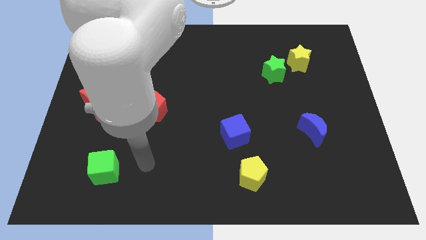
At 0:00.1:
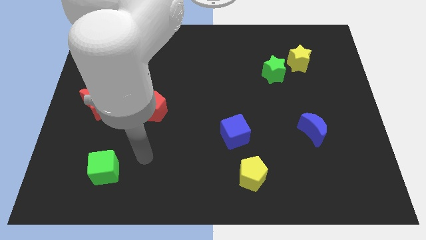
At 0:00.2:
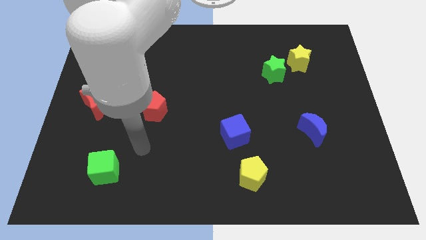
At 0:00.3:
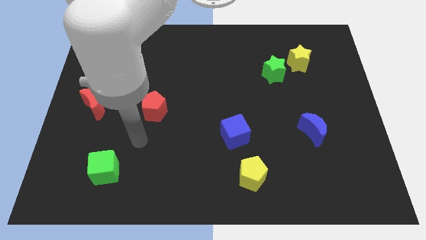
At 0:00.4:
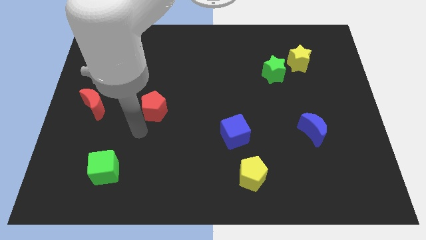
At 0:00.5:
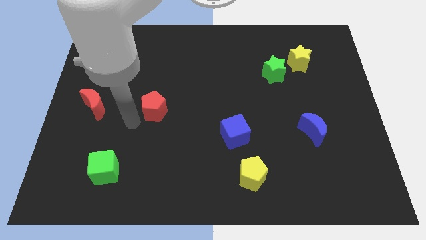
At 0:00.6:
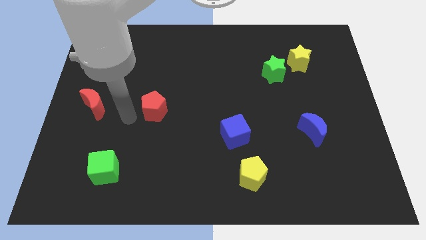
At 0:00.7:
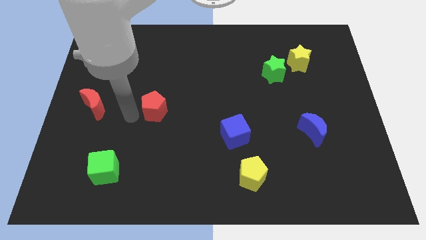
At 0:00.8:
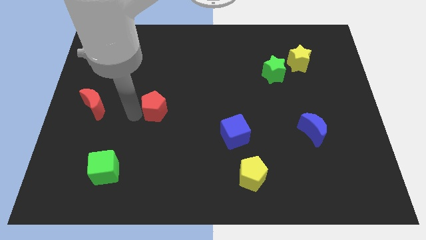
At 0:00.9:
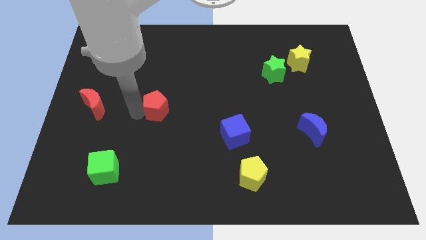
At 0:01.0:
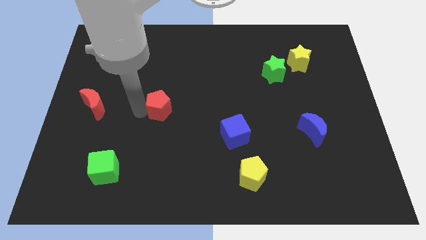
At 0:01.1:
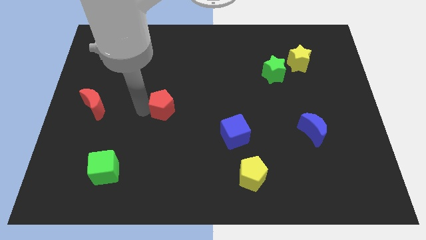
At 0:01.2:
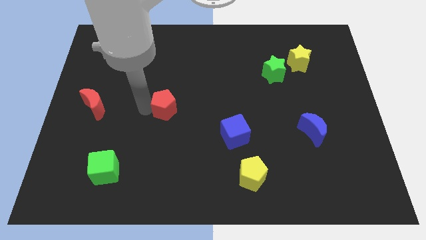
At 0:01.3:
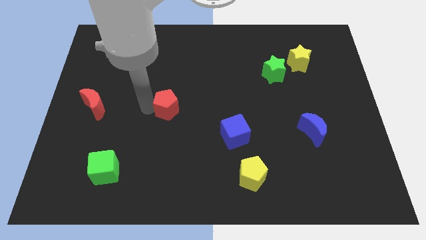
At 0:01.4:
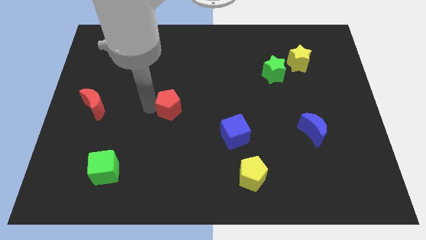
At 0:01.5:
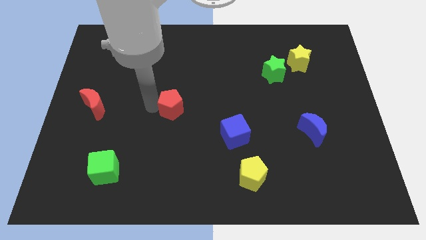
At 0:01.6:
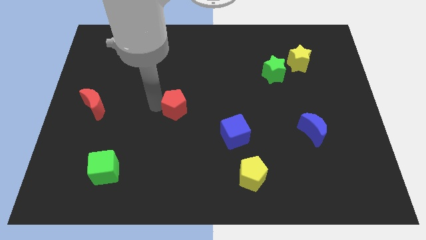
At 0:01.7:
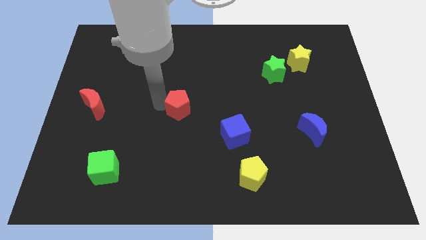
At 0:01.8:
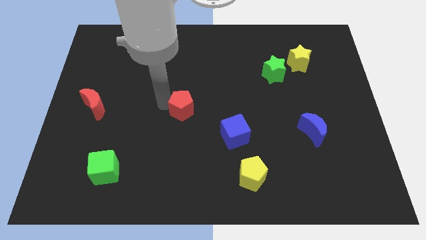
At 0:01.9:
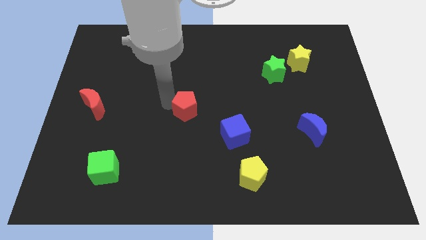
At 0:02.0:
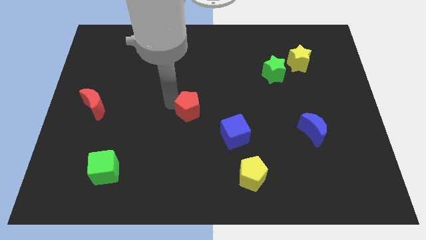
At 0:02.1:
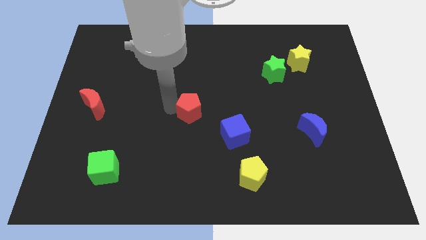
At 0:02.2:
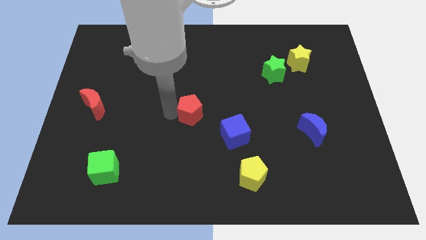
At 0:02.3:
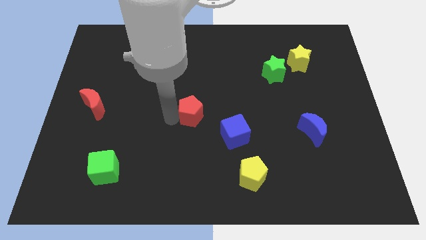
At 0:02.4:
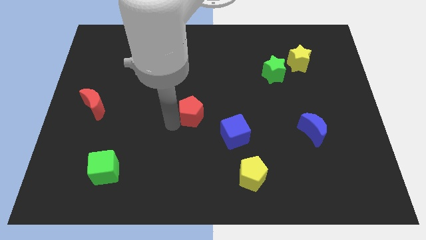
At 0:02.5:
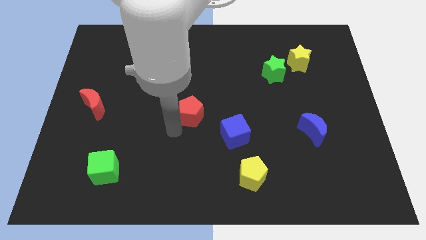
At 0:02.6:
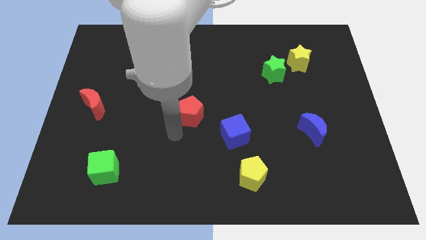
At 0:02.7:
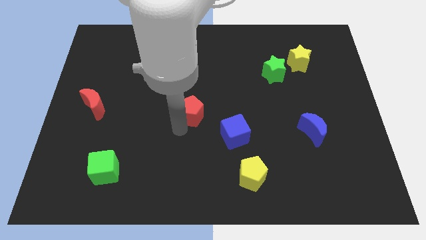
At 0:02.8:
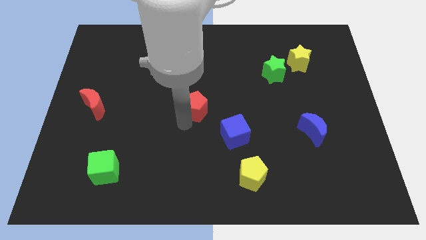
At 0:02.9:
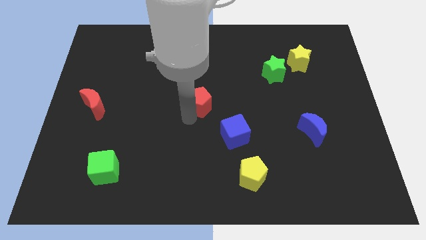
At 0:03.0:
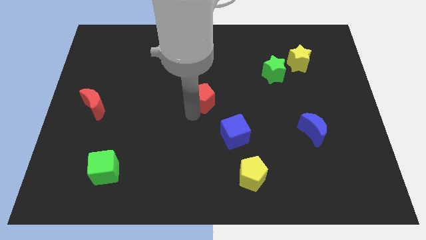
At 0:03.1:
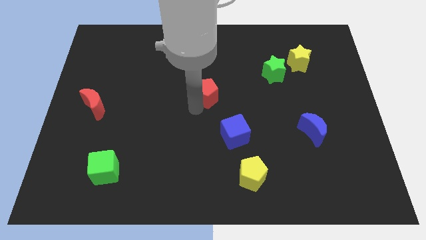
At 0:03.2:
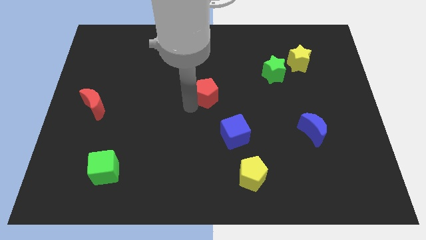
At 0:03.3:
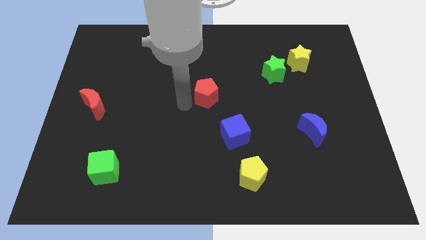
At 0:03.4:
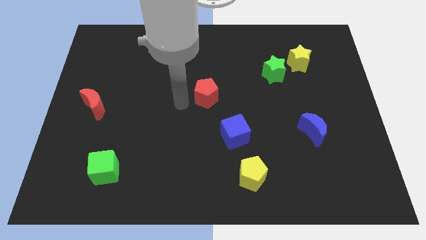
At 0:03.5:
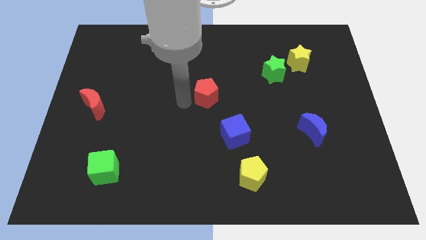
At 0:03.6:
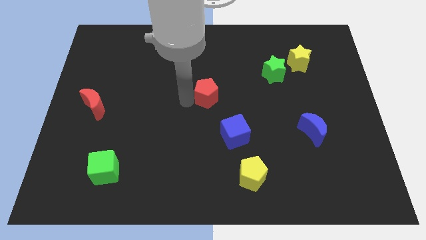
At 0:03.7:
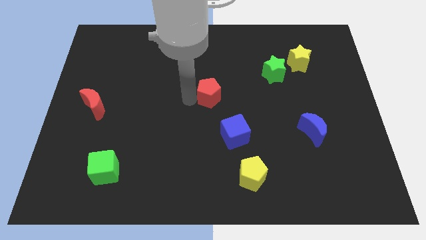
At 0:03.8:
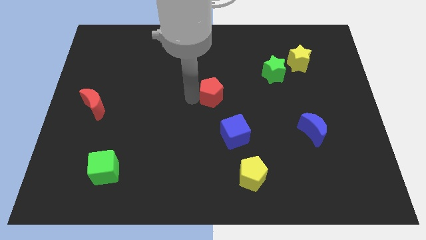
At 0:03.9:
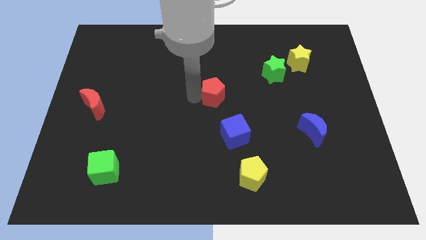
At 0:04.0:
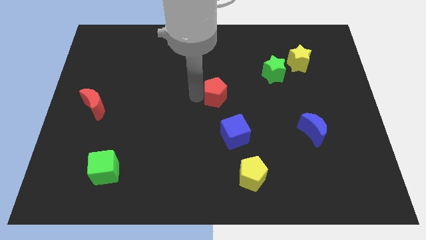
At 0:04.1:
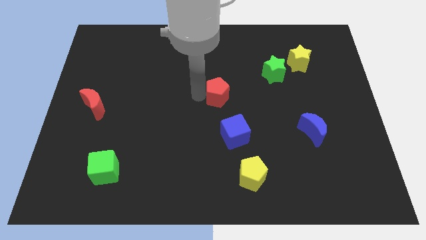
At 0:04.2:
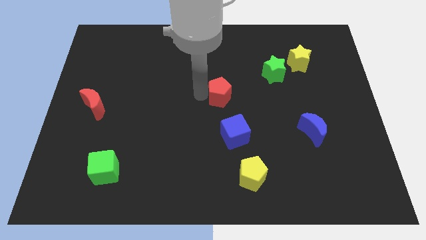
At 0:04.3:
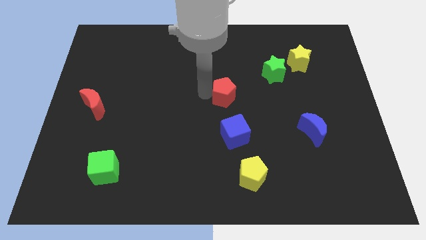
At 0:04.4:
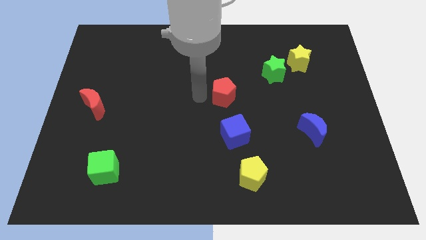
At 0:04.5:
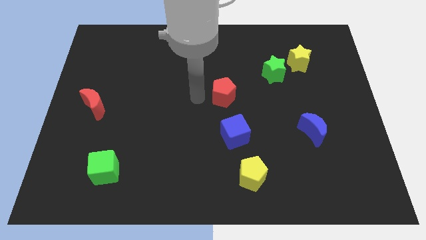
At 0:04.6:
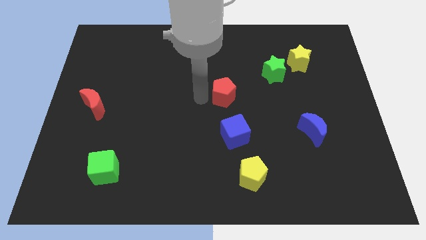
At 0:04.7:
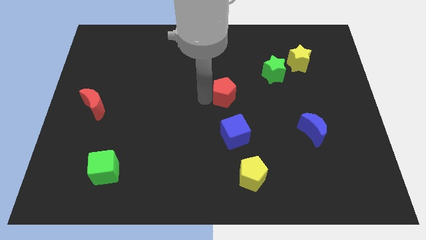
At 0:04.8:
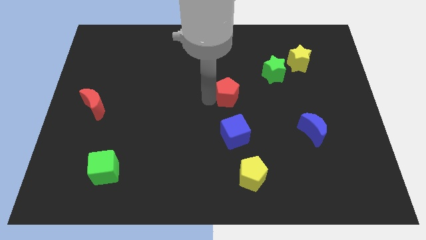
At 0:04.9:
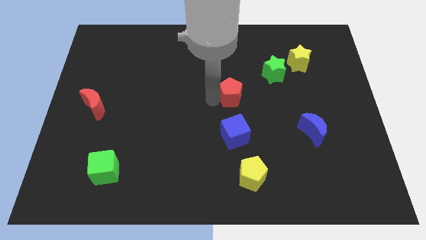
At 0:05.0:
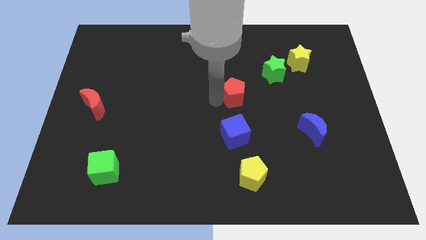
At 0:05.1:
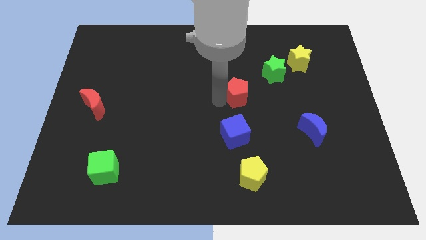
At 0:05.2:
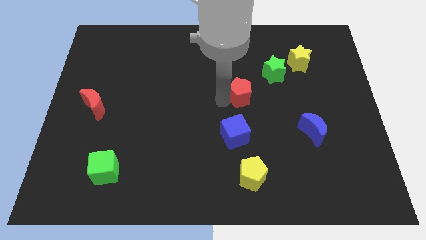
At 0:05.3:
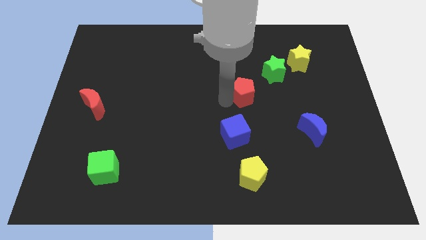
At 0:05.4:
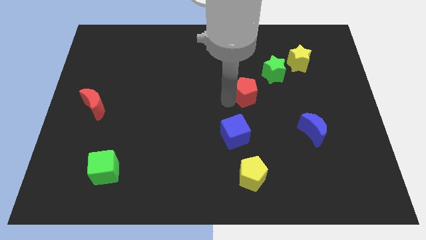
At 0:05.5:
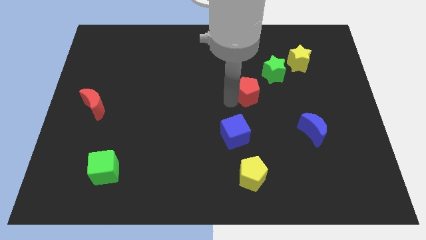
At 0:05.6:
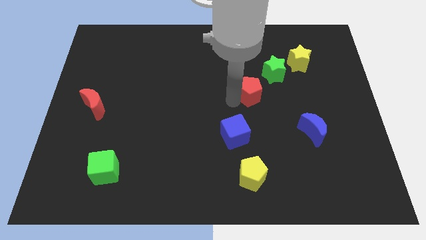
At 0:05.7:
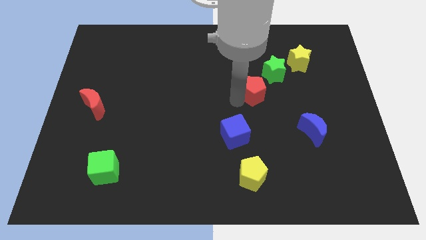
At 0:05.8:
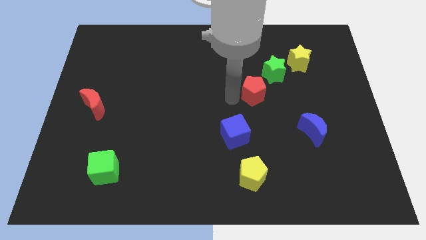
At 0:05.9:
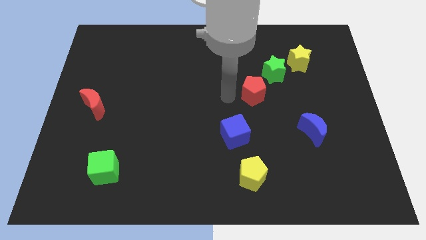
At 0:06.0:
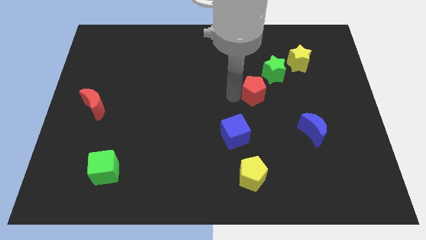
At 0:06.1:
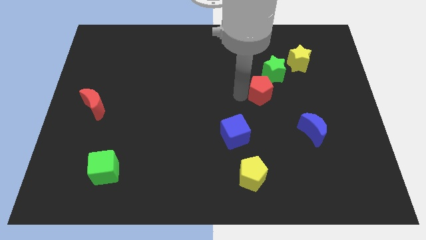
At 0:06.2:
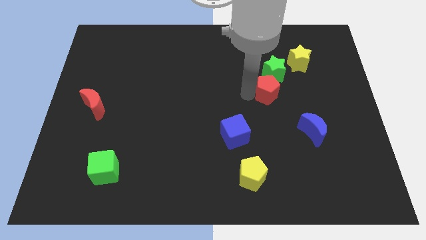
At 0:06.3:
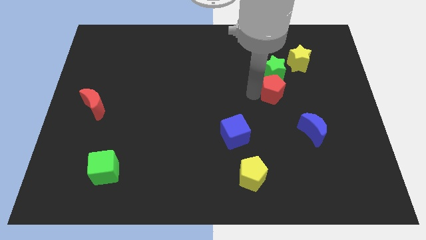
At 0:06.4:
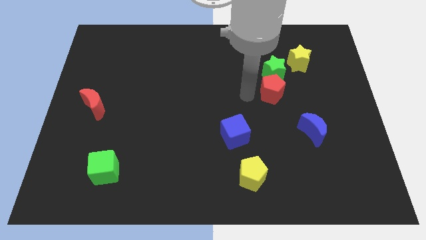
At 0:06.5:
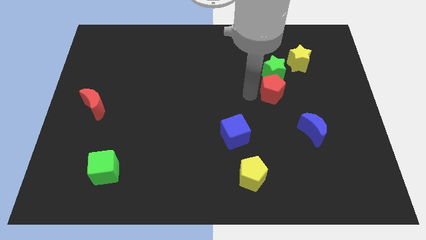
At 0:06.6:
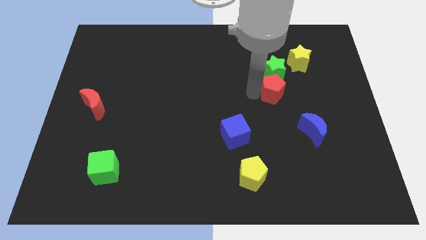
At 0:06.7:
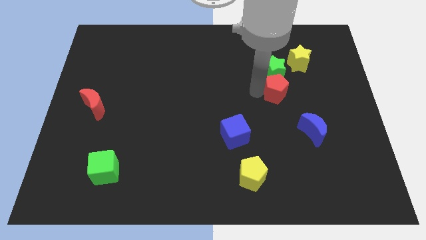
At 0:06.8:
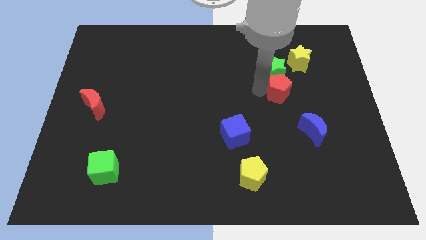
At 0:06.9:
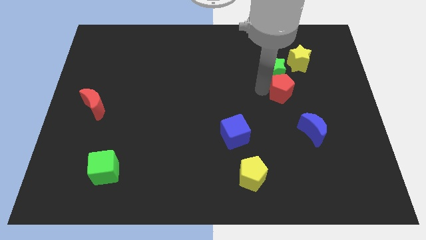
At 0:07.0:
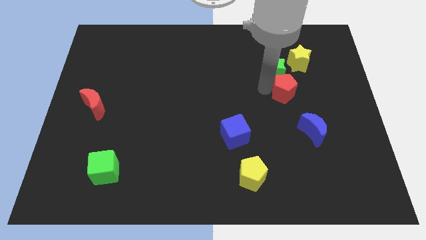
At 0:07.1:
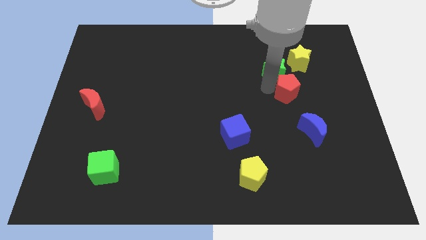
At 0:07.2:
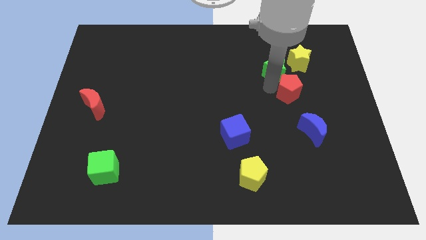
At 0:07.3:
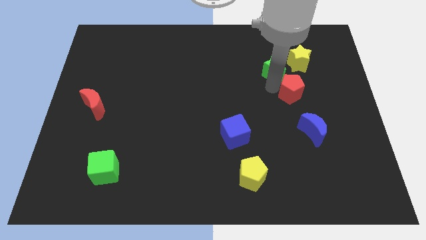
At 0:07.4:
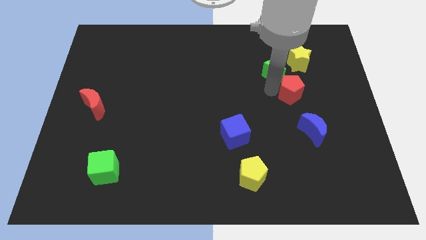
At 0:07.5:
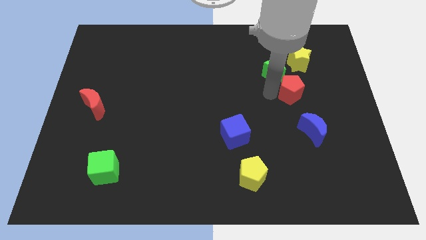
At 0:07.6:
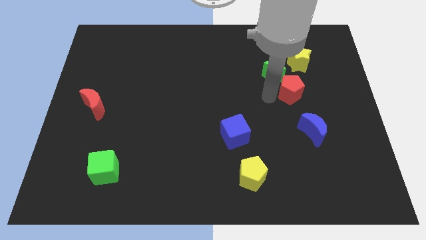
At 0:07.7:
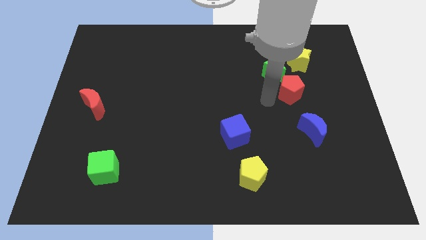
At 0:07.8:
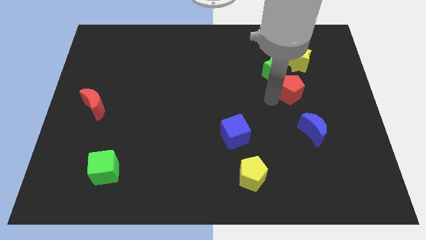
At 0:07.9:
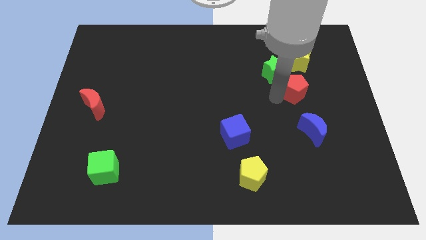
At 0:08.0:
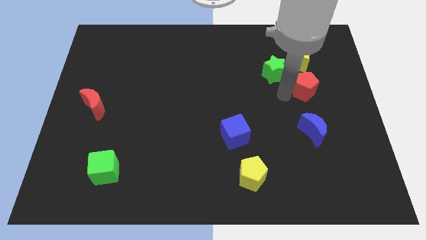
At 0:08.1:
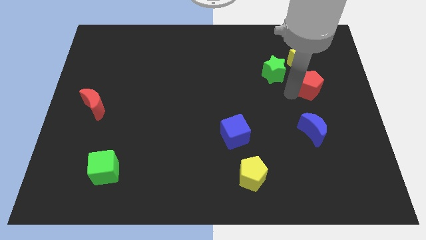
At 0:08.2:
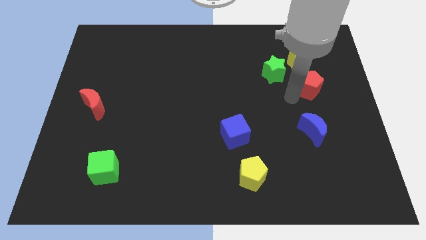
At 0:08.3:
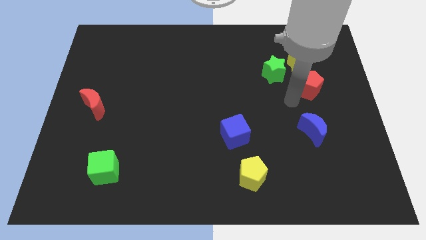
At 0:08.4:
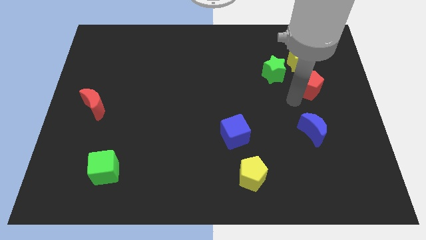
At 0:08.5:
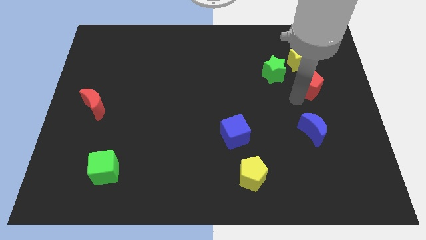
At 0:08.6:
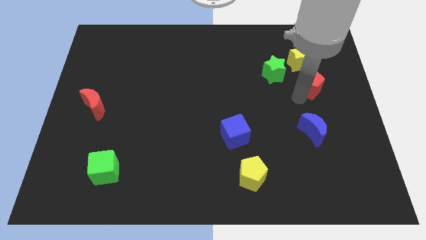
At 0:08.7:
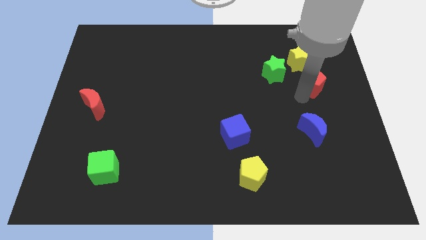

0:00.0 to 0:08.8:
push the red pentagon to the bottom right side of the yellow star
